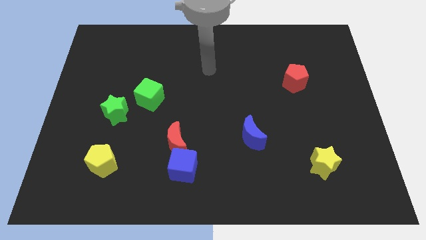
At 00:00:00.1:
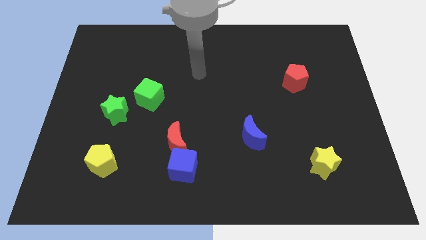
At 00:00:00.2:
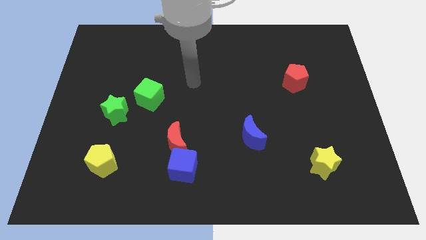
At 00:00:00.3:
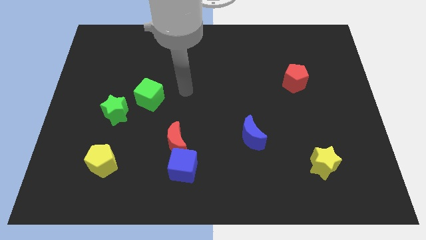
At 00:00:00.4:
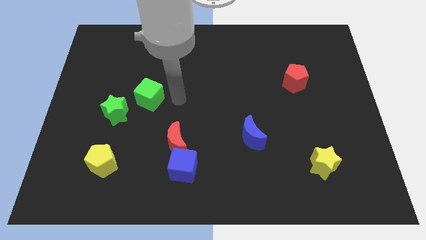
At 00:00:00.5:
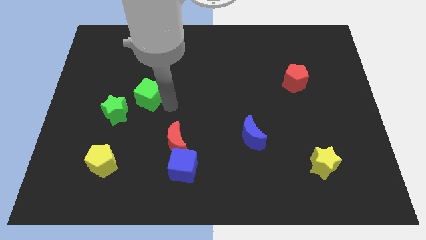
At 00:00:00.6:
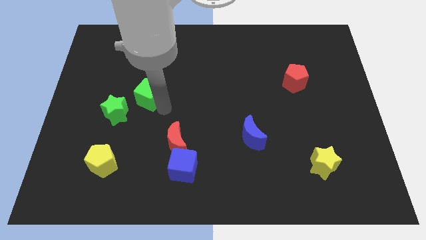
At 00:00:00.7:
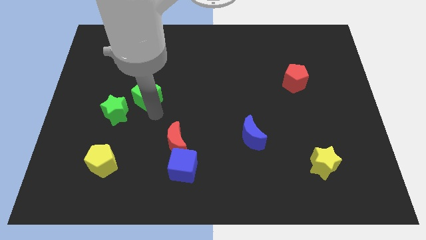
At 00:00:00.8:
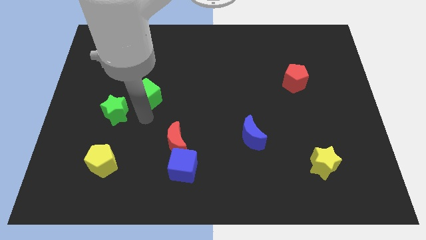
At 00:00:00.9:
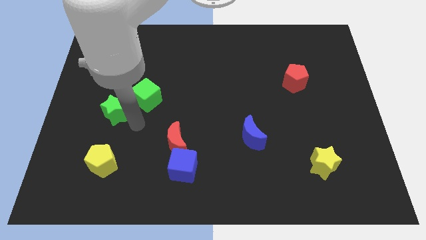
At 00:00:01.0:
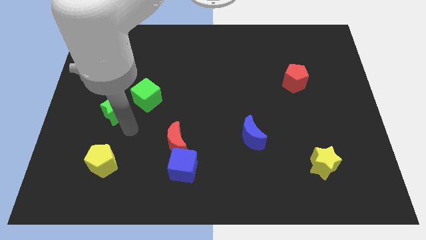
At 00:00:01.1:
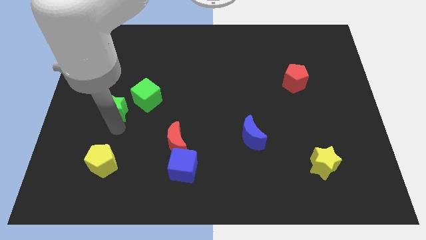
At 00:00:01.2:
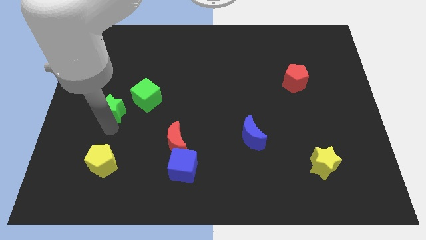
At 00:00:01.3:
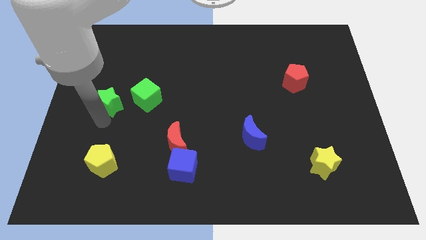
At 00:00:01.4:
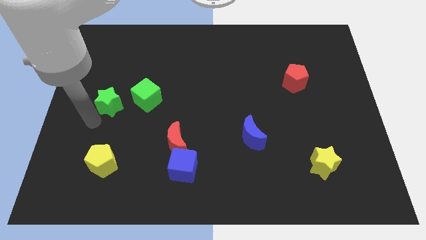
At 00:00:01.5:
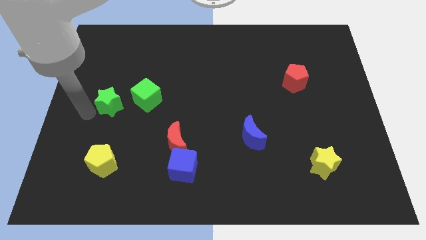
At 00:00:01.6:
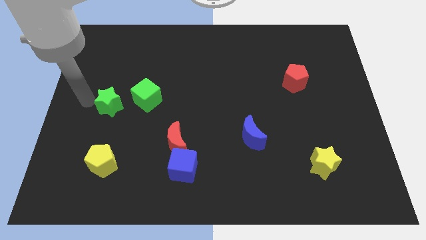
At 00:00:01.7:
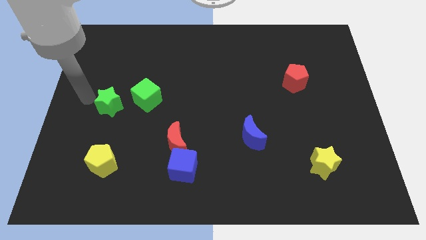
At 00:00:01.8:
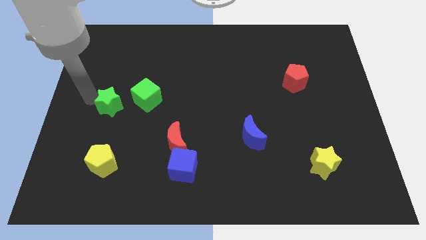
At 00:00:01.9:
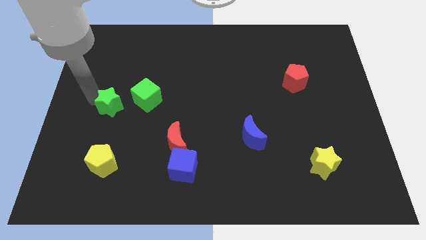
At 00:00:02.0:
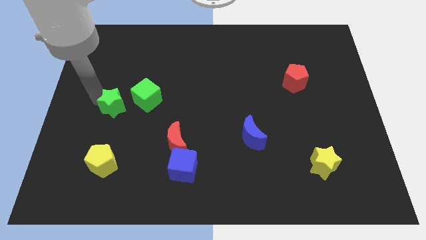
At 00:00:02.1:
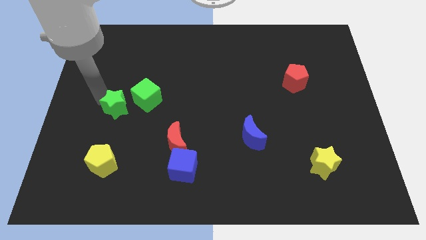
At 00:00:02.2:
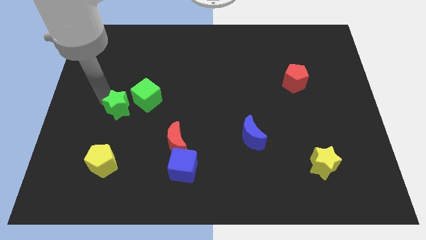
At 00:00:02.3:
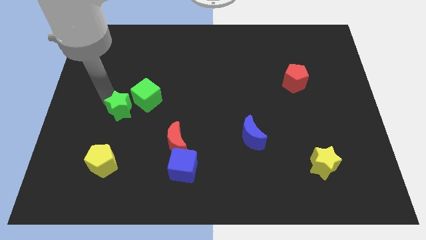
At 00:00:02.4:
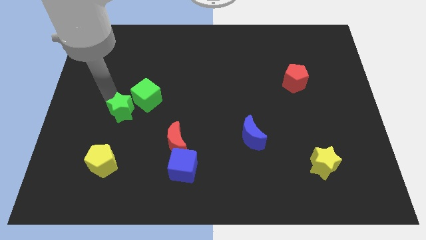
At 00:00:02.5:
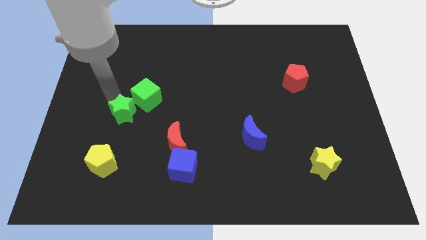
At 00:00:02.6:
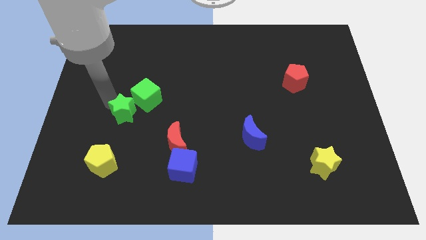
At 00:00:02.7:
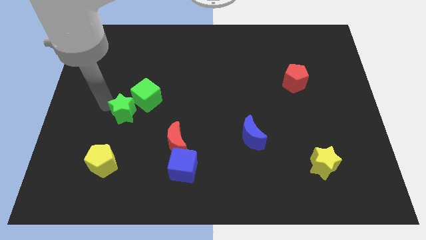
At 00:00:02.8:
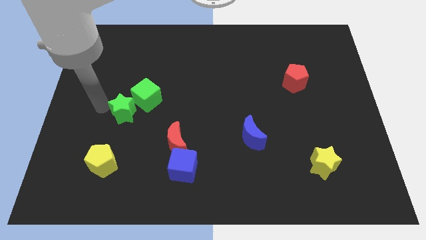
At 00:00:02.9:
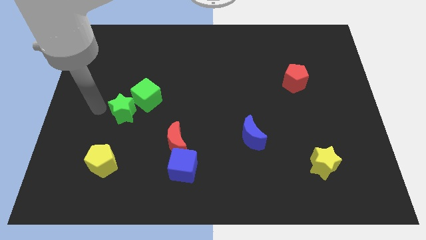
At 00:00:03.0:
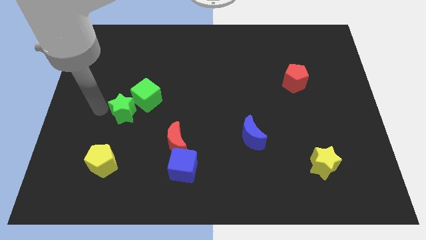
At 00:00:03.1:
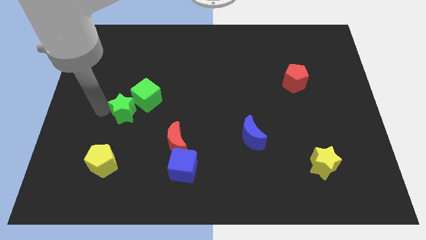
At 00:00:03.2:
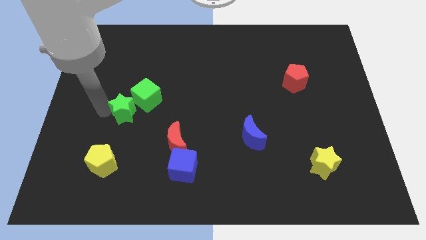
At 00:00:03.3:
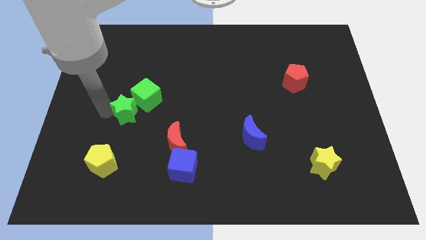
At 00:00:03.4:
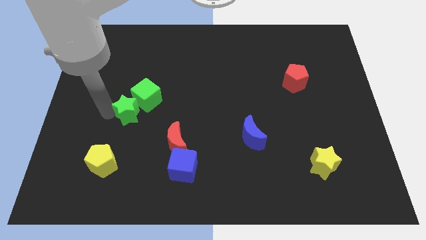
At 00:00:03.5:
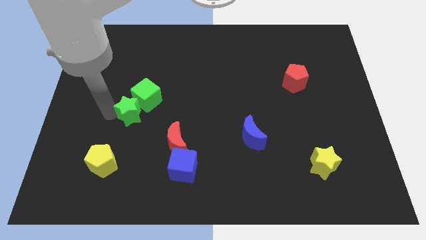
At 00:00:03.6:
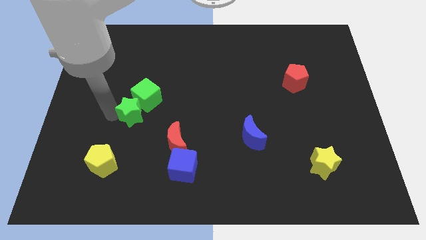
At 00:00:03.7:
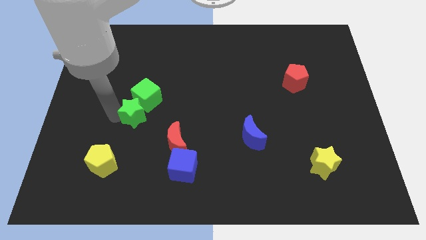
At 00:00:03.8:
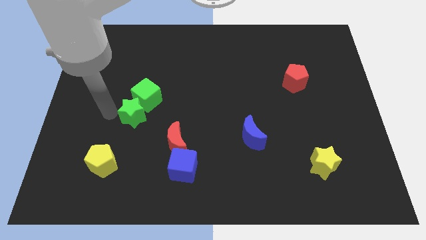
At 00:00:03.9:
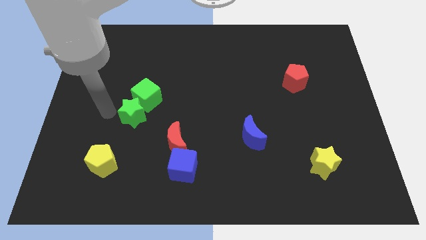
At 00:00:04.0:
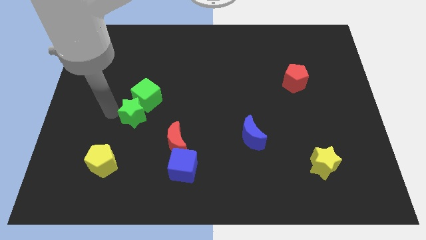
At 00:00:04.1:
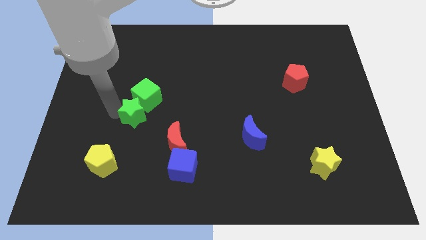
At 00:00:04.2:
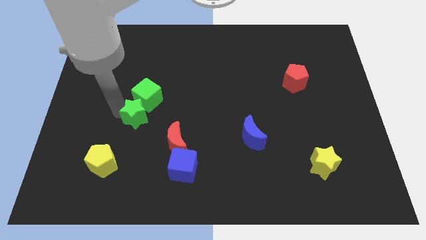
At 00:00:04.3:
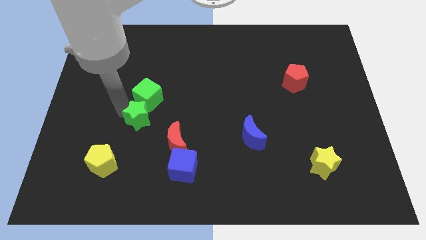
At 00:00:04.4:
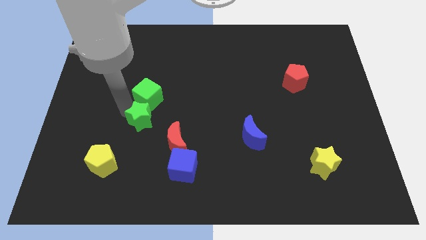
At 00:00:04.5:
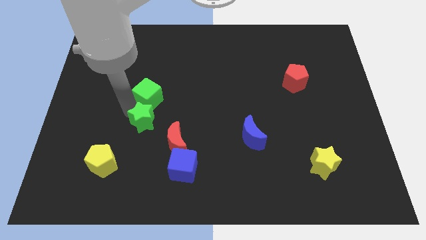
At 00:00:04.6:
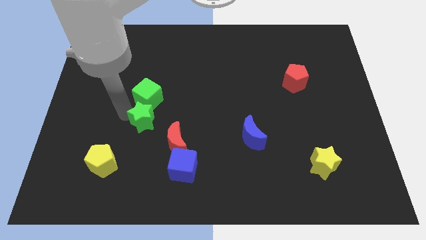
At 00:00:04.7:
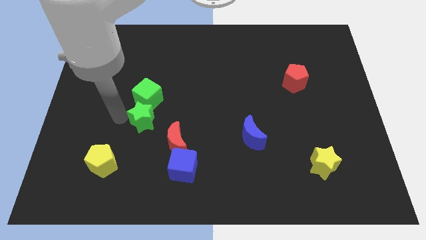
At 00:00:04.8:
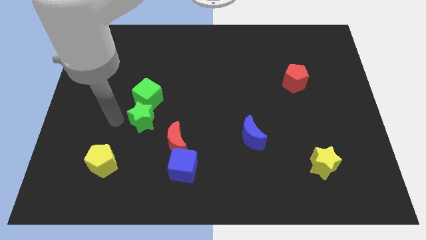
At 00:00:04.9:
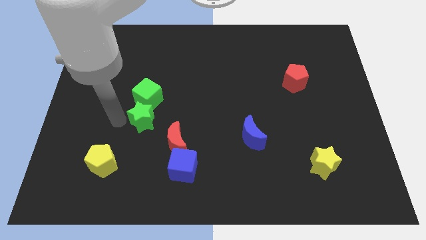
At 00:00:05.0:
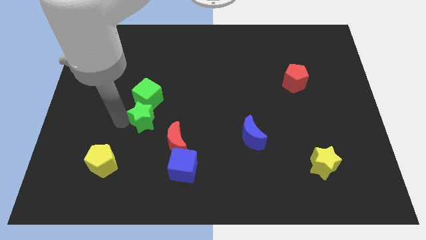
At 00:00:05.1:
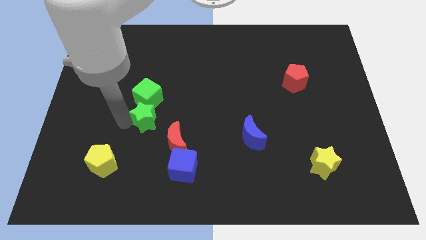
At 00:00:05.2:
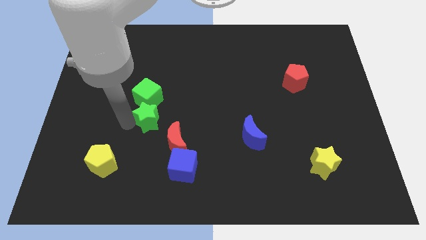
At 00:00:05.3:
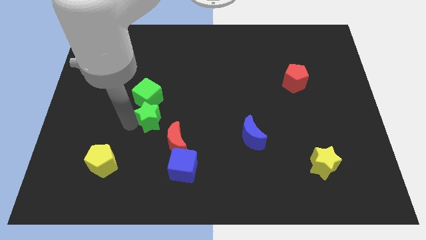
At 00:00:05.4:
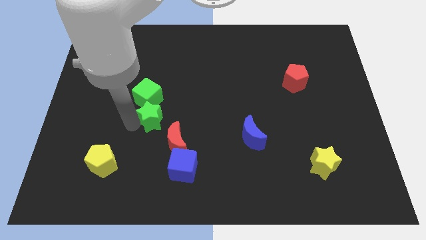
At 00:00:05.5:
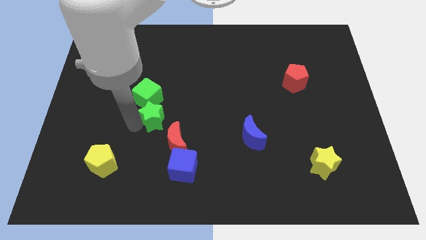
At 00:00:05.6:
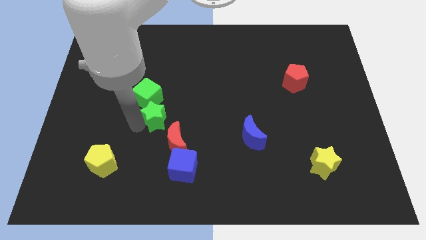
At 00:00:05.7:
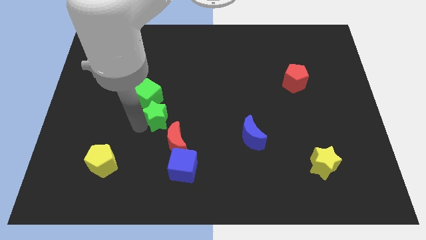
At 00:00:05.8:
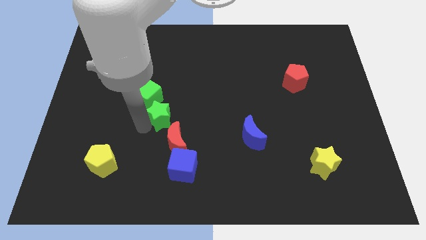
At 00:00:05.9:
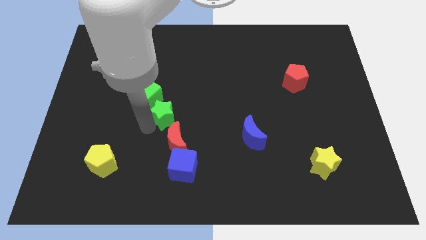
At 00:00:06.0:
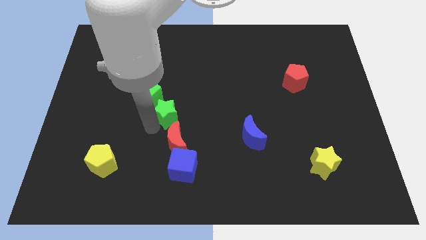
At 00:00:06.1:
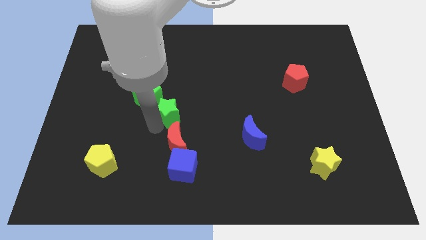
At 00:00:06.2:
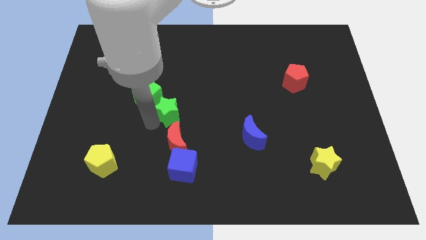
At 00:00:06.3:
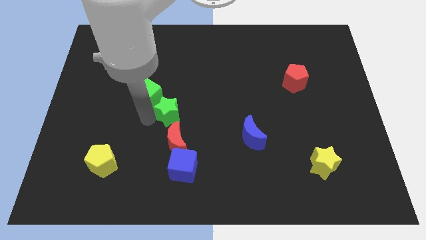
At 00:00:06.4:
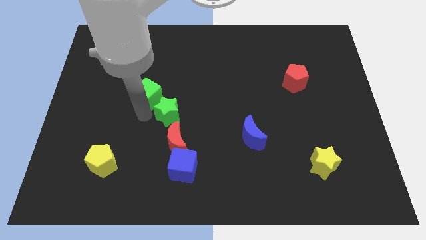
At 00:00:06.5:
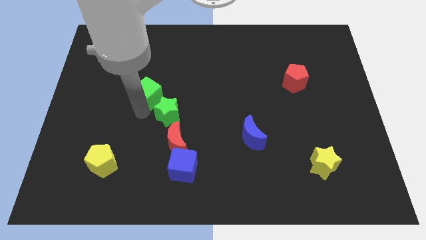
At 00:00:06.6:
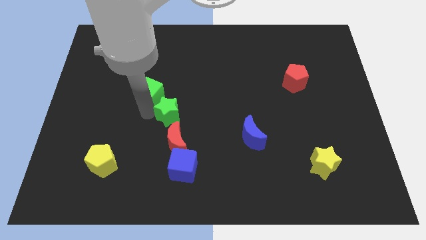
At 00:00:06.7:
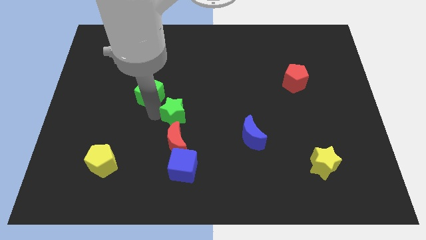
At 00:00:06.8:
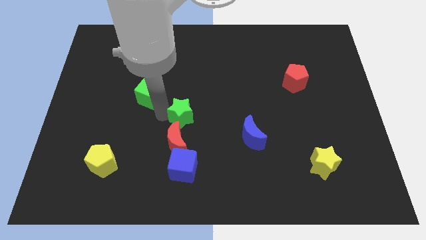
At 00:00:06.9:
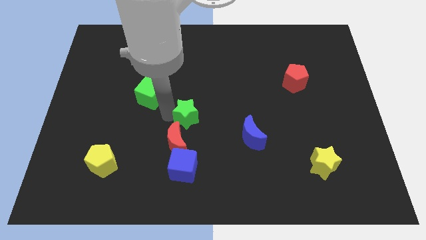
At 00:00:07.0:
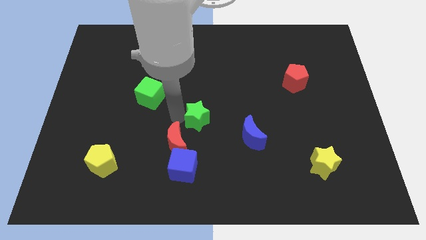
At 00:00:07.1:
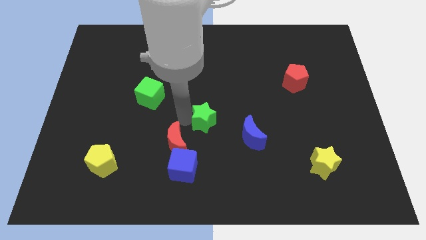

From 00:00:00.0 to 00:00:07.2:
slide the green star to the right

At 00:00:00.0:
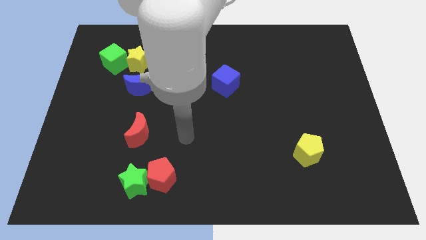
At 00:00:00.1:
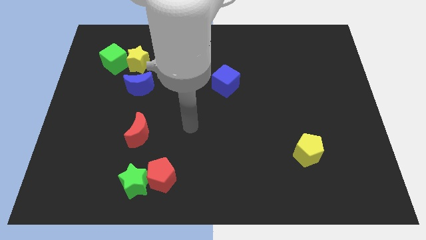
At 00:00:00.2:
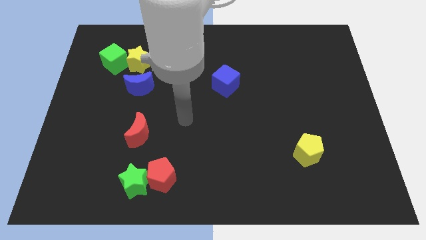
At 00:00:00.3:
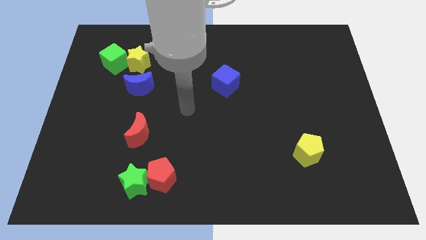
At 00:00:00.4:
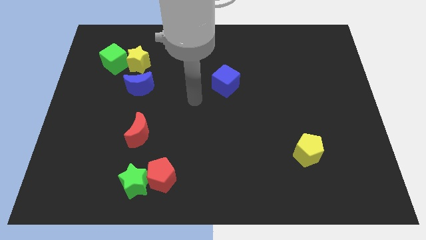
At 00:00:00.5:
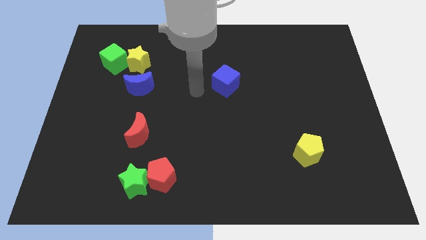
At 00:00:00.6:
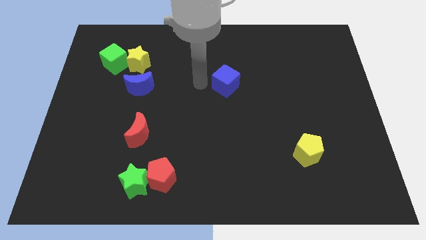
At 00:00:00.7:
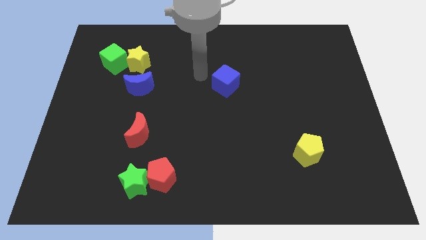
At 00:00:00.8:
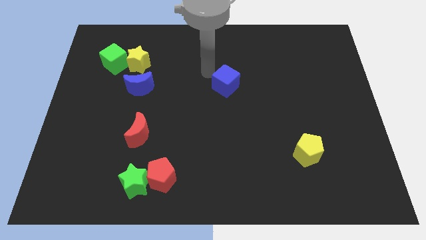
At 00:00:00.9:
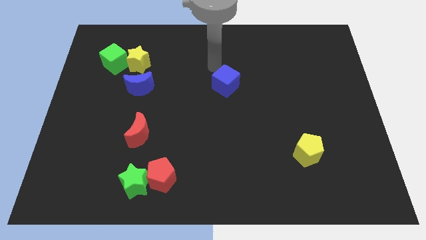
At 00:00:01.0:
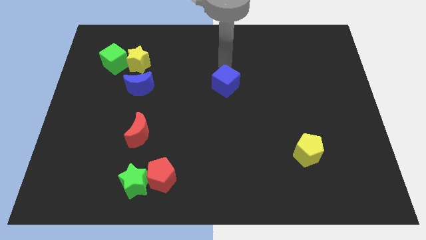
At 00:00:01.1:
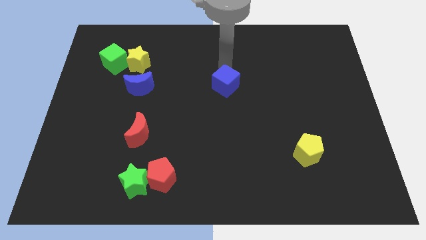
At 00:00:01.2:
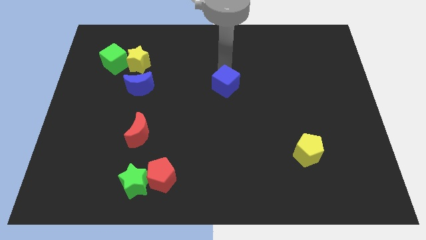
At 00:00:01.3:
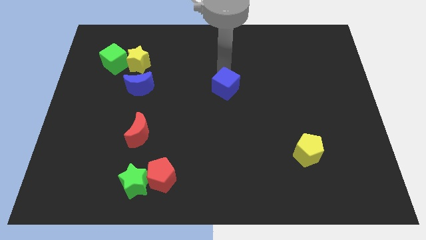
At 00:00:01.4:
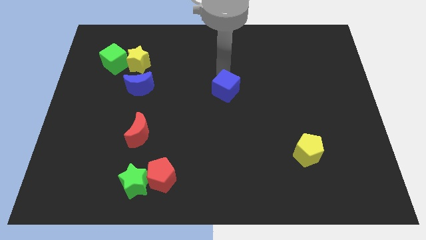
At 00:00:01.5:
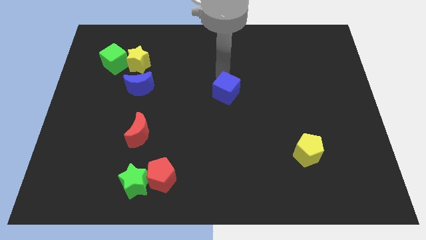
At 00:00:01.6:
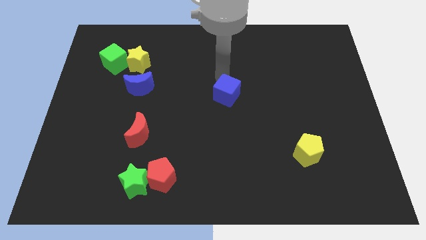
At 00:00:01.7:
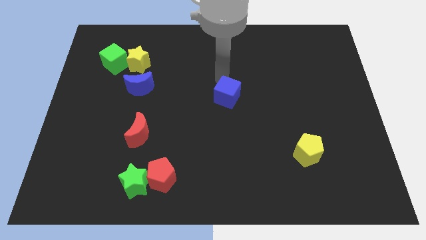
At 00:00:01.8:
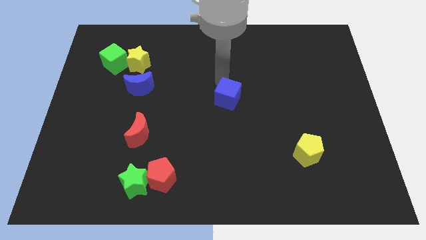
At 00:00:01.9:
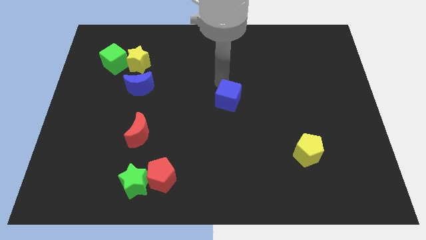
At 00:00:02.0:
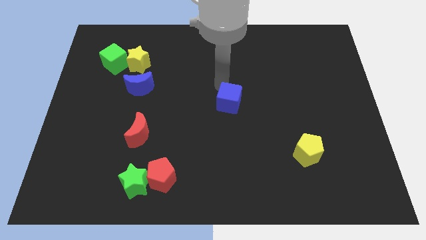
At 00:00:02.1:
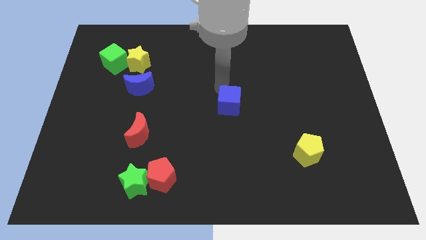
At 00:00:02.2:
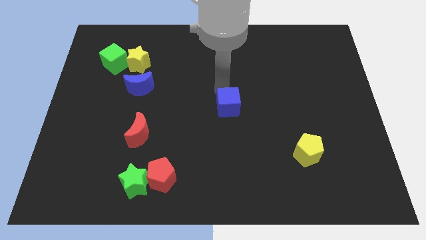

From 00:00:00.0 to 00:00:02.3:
slide the blue cube a little bit down
